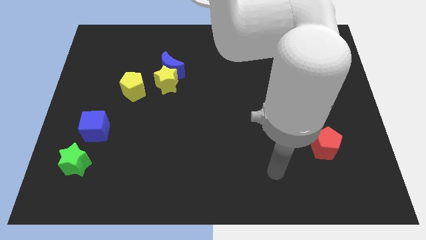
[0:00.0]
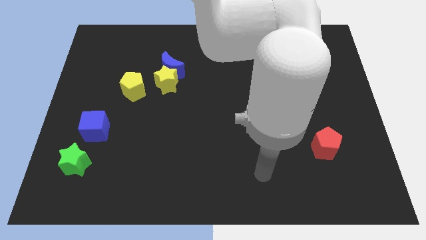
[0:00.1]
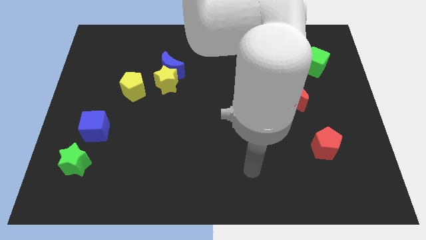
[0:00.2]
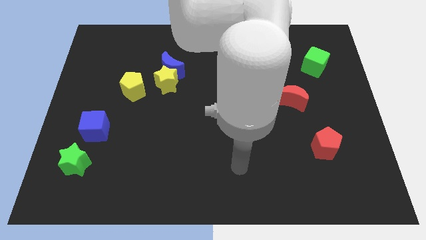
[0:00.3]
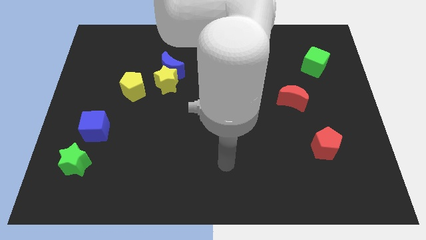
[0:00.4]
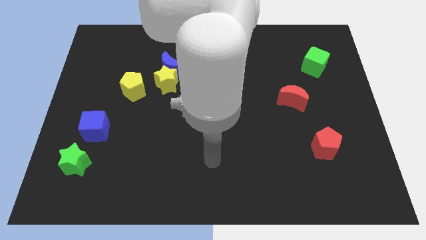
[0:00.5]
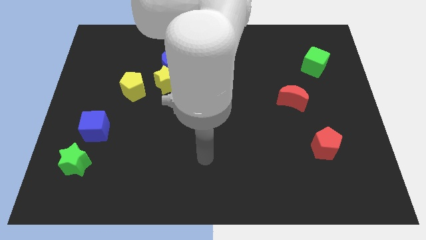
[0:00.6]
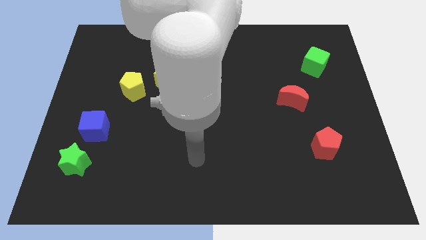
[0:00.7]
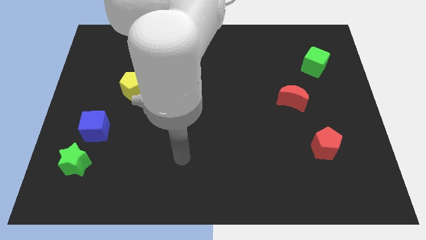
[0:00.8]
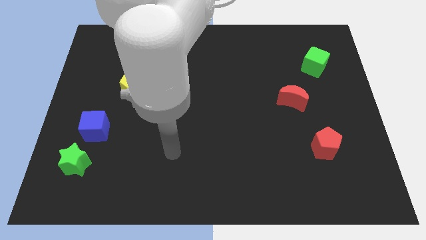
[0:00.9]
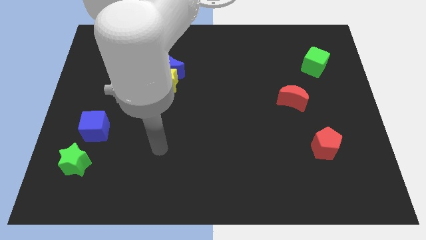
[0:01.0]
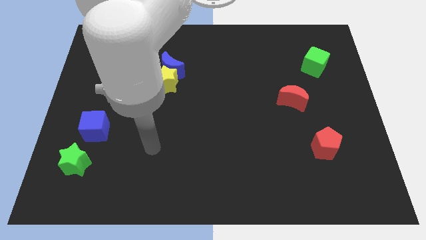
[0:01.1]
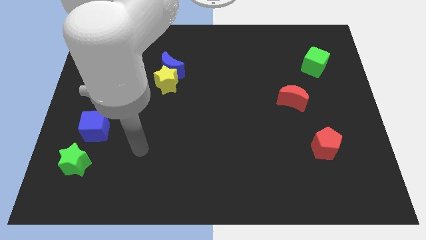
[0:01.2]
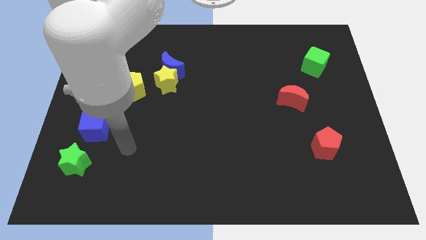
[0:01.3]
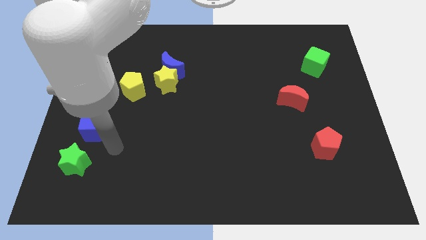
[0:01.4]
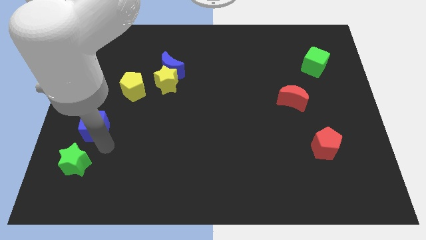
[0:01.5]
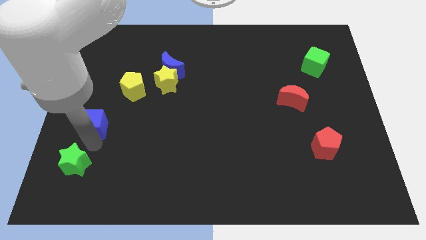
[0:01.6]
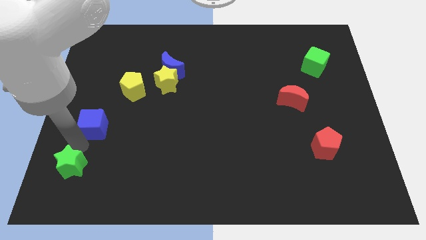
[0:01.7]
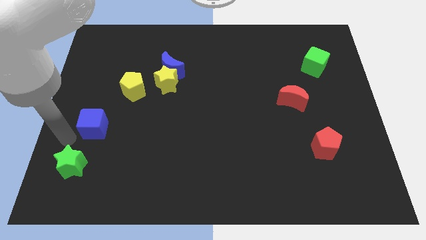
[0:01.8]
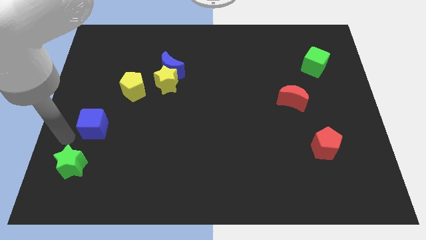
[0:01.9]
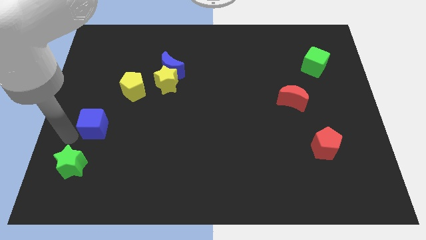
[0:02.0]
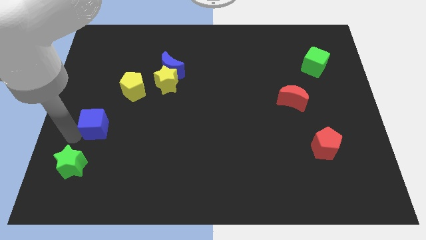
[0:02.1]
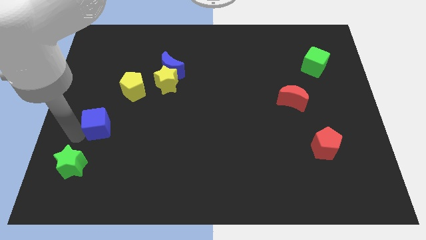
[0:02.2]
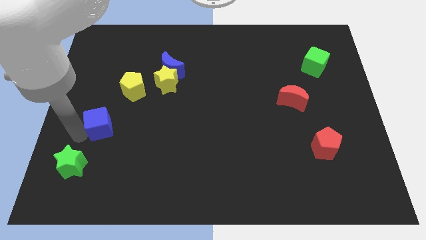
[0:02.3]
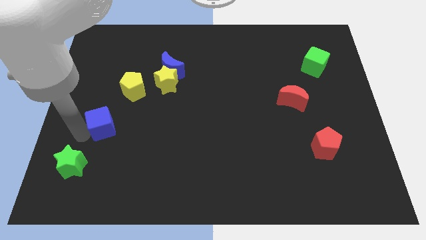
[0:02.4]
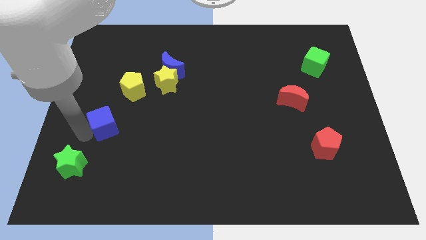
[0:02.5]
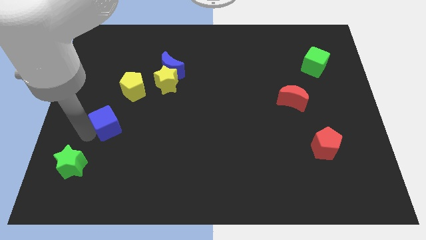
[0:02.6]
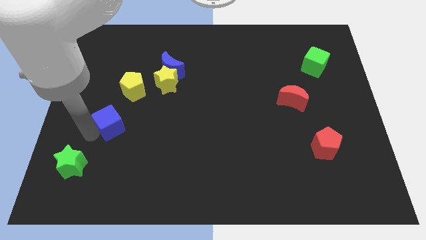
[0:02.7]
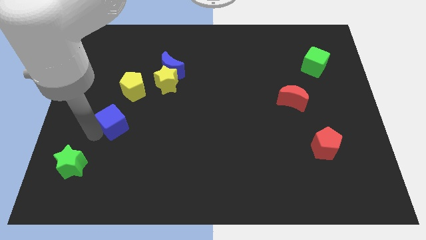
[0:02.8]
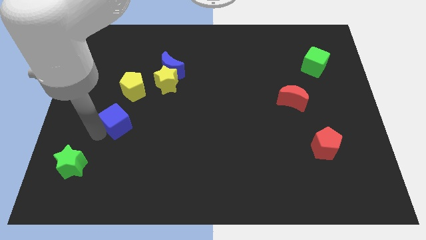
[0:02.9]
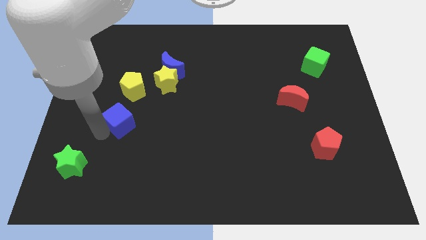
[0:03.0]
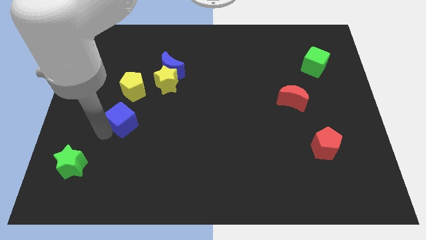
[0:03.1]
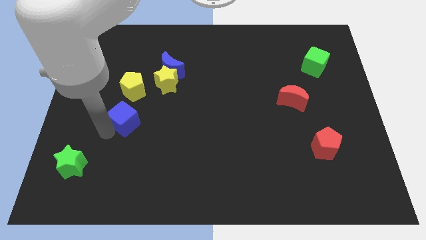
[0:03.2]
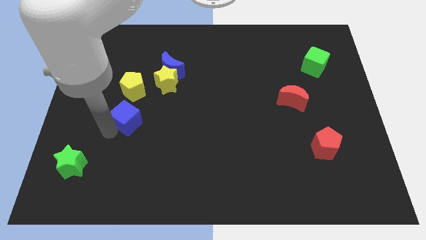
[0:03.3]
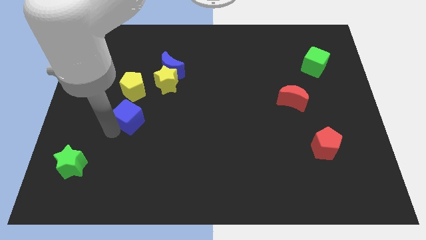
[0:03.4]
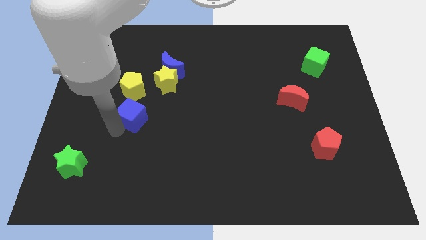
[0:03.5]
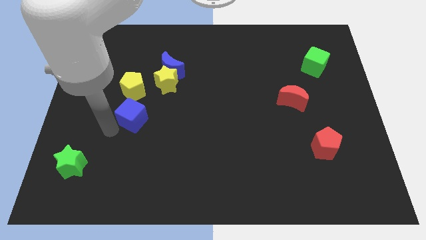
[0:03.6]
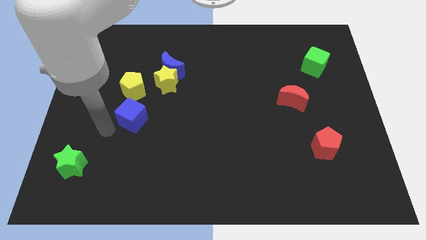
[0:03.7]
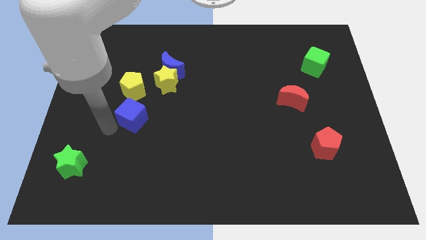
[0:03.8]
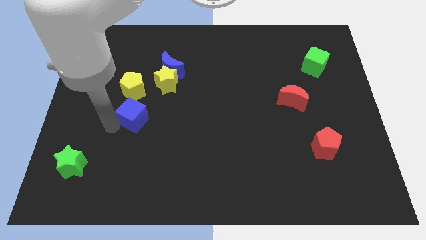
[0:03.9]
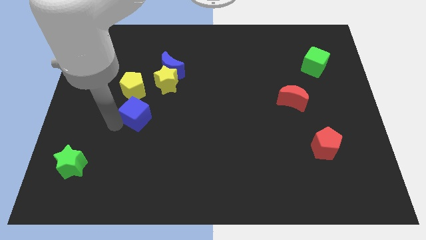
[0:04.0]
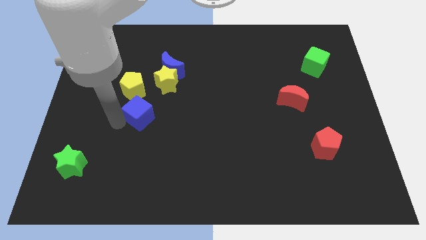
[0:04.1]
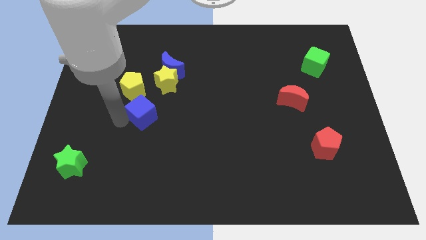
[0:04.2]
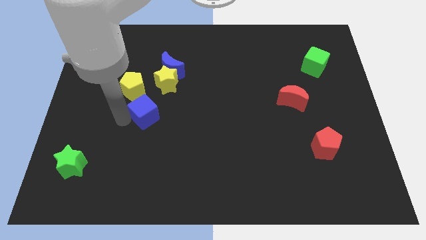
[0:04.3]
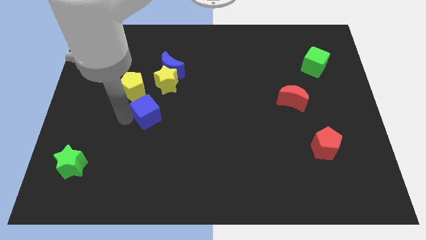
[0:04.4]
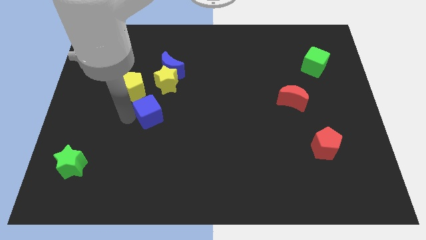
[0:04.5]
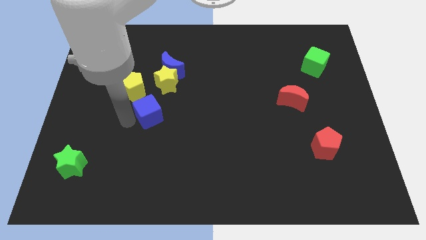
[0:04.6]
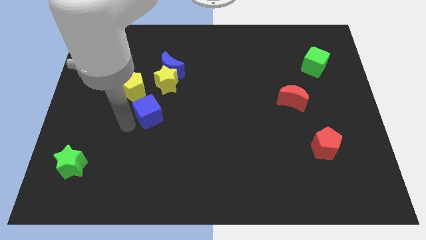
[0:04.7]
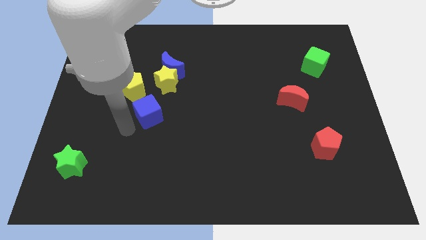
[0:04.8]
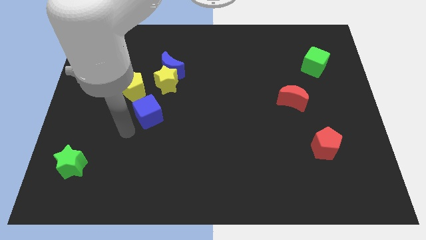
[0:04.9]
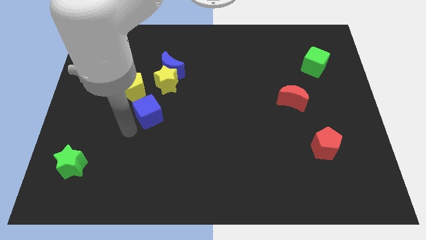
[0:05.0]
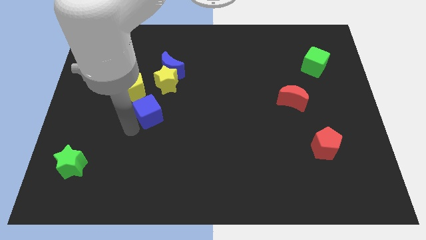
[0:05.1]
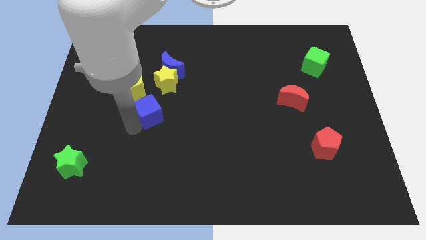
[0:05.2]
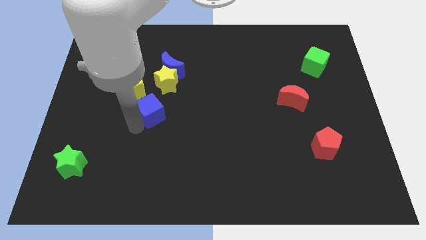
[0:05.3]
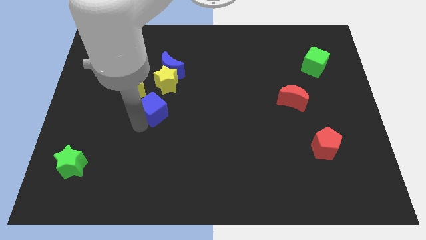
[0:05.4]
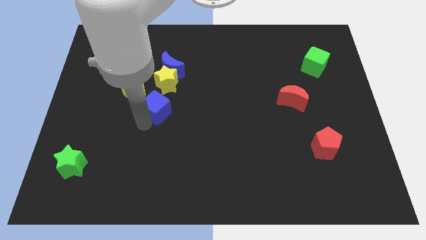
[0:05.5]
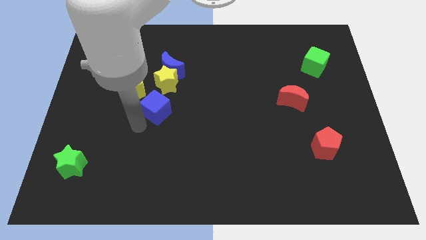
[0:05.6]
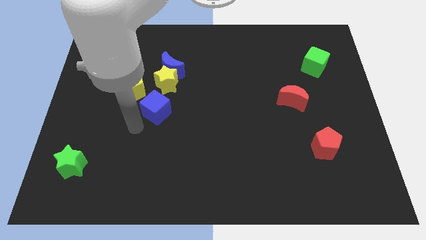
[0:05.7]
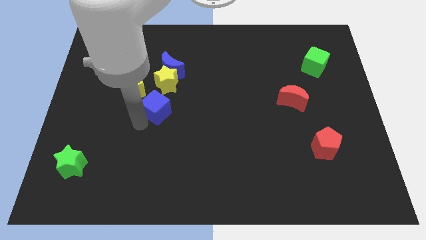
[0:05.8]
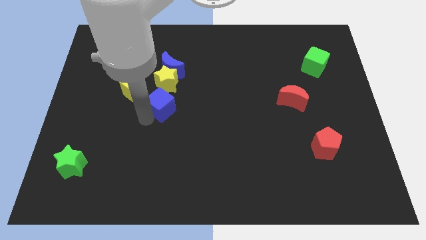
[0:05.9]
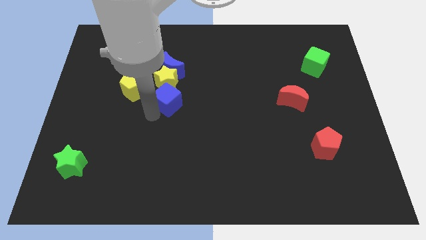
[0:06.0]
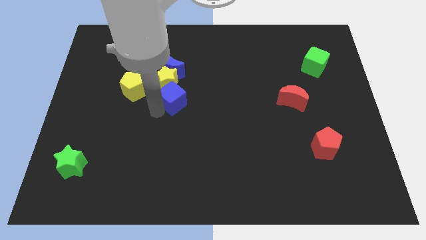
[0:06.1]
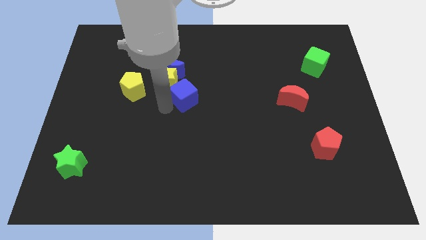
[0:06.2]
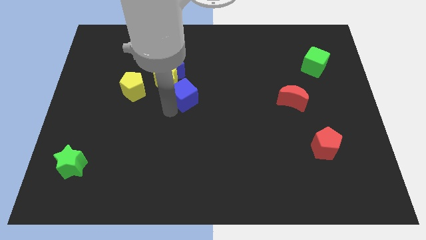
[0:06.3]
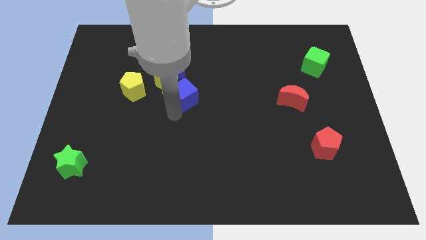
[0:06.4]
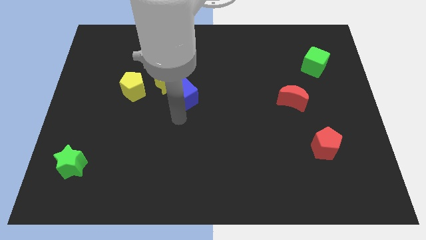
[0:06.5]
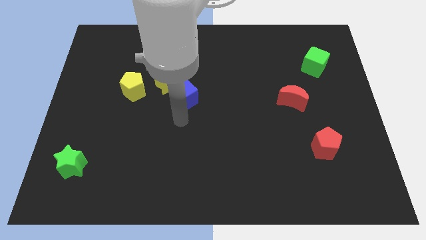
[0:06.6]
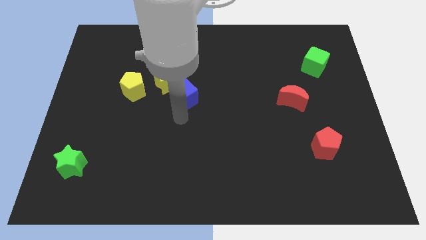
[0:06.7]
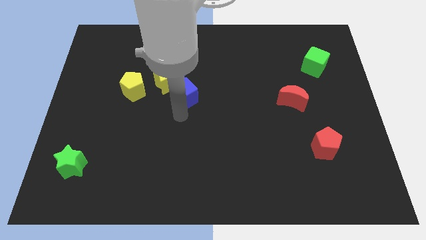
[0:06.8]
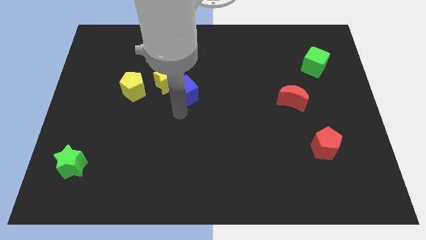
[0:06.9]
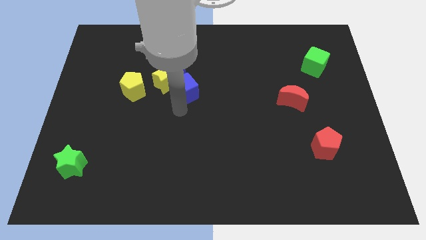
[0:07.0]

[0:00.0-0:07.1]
move the blue cube upwards and then right

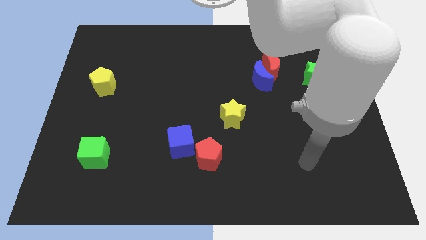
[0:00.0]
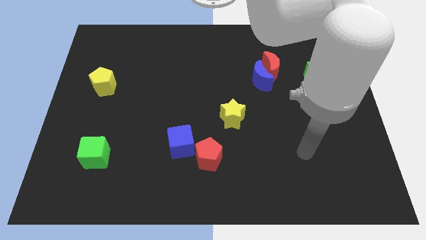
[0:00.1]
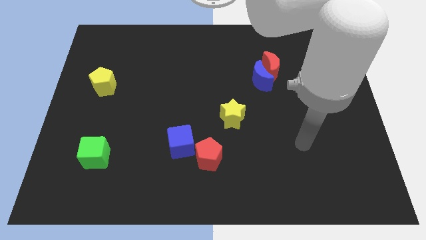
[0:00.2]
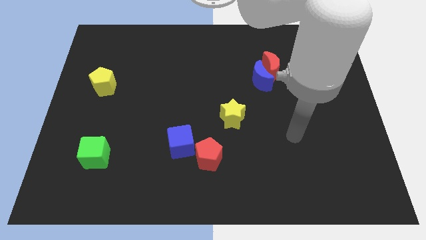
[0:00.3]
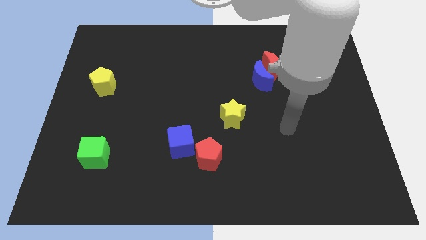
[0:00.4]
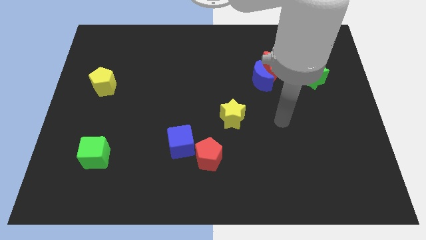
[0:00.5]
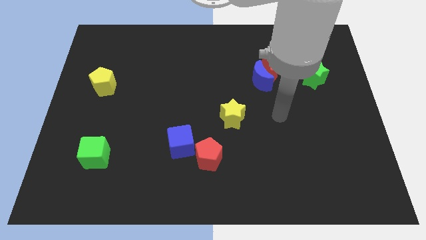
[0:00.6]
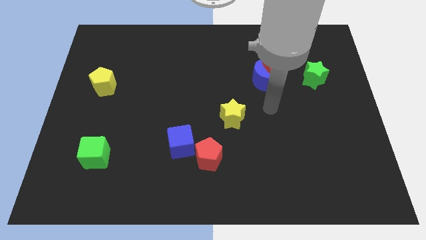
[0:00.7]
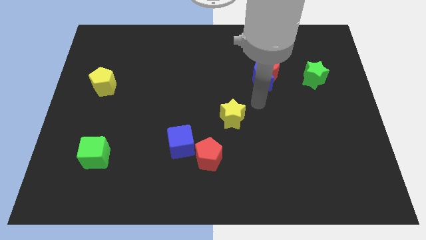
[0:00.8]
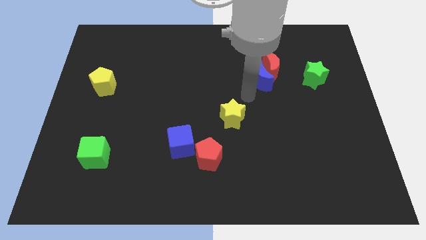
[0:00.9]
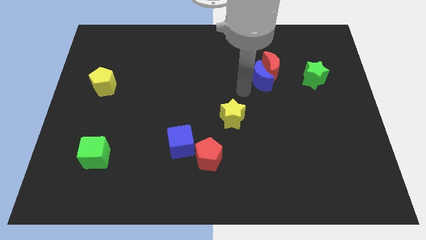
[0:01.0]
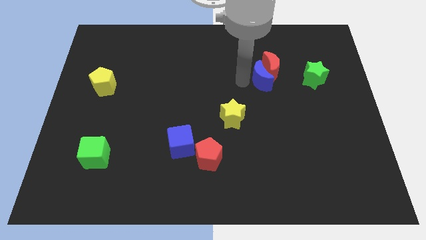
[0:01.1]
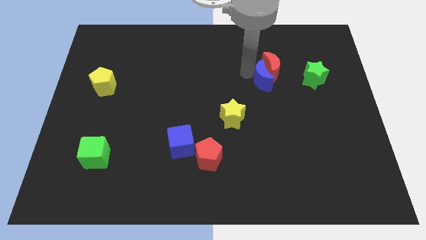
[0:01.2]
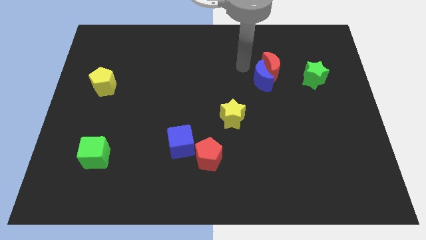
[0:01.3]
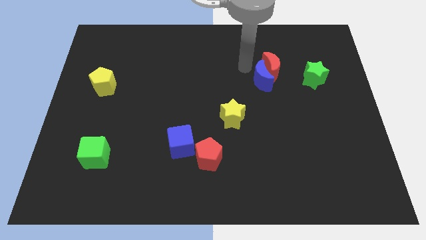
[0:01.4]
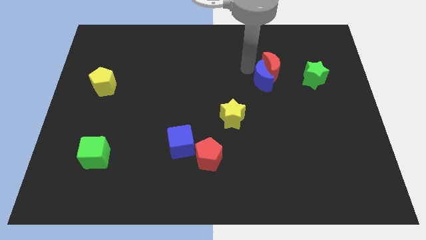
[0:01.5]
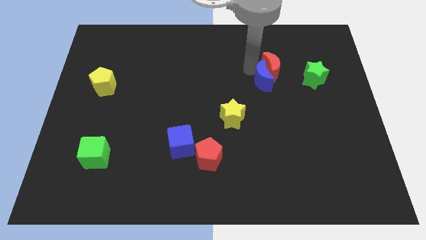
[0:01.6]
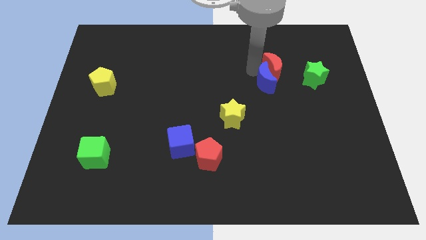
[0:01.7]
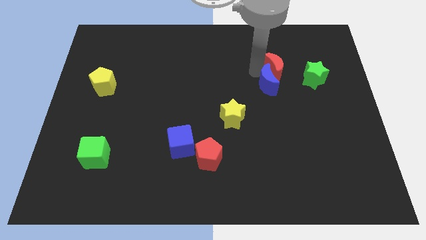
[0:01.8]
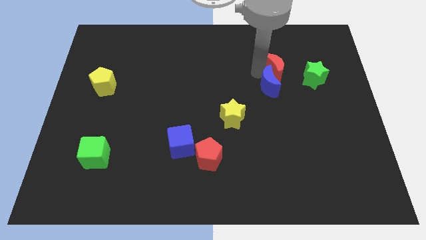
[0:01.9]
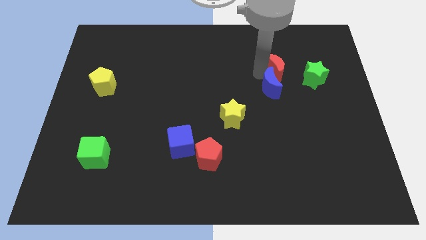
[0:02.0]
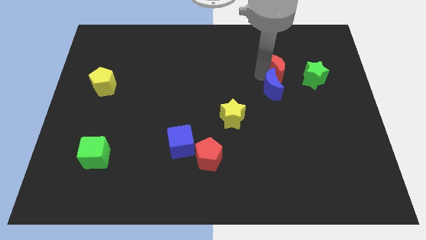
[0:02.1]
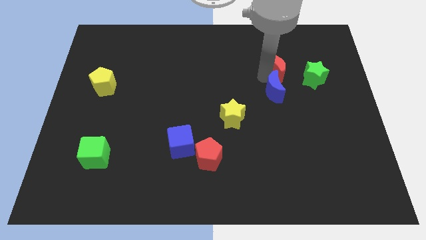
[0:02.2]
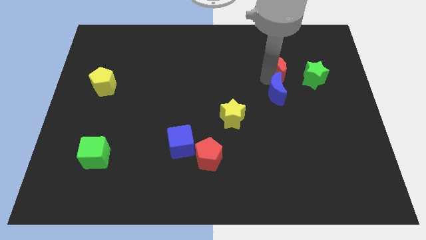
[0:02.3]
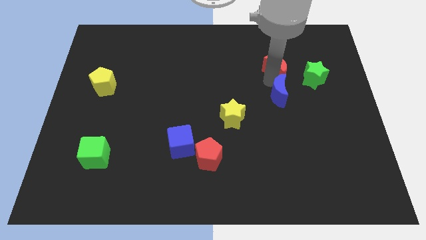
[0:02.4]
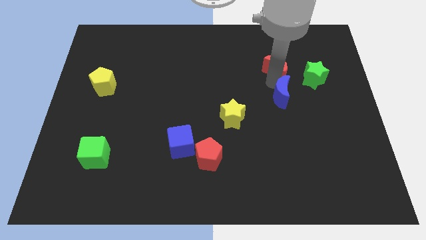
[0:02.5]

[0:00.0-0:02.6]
slide the blue moon down and to the right diagonally a bit
